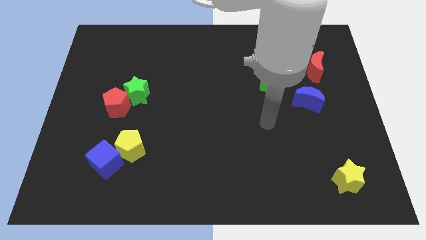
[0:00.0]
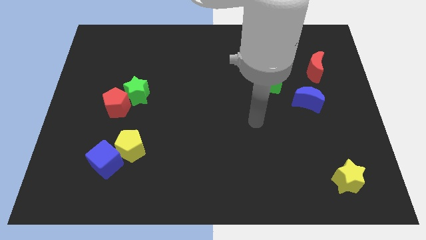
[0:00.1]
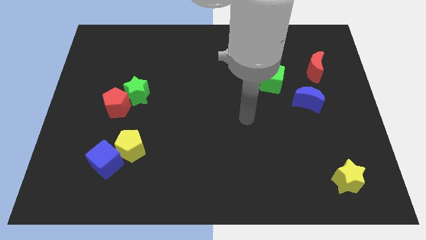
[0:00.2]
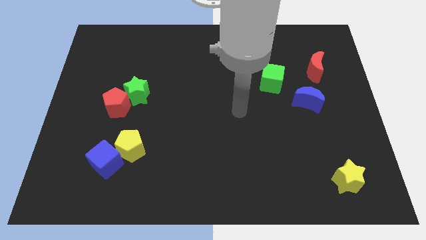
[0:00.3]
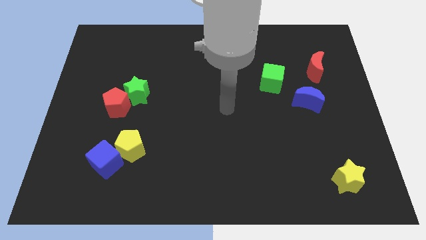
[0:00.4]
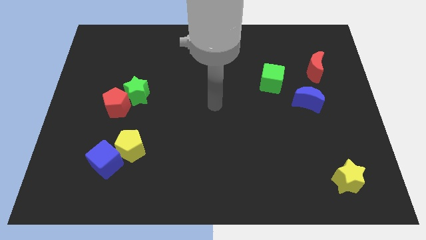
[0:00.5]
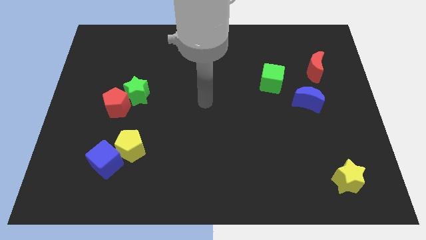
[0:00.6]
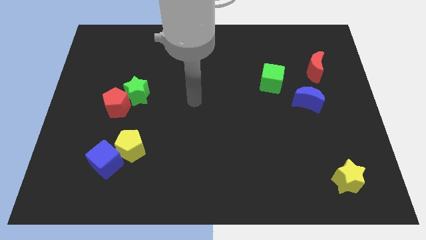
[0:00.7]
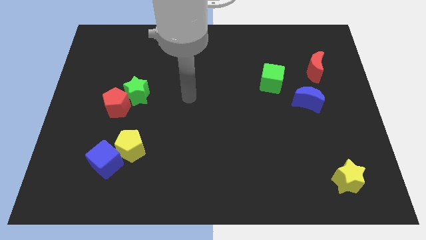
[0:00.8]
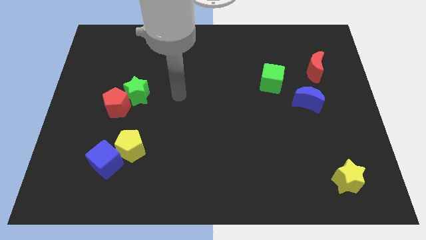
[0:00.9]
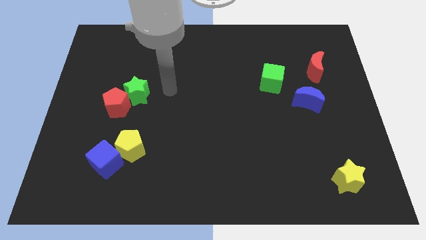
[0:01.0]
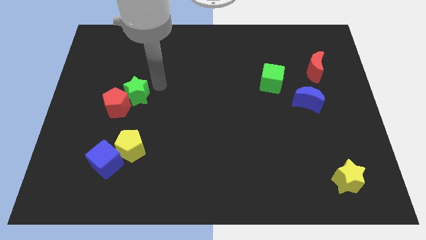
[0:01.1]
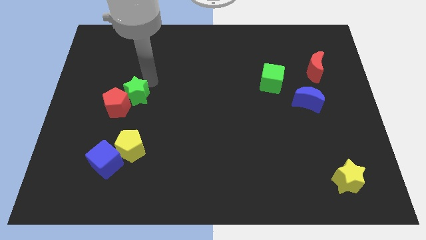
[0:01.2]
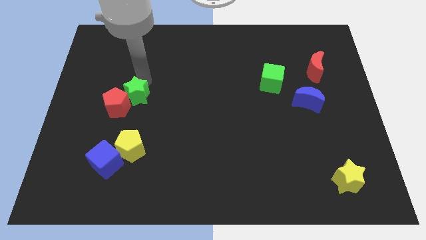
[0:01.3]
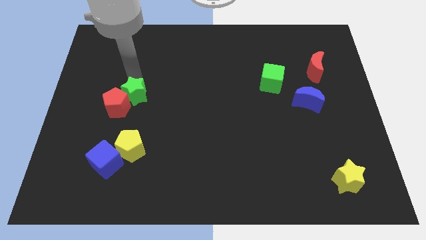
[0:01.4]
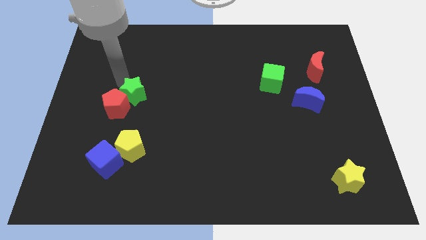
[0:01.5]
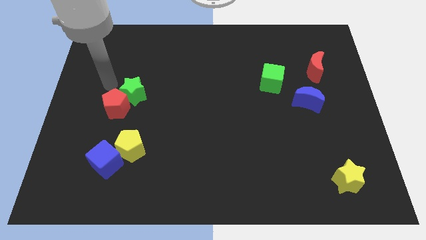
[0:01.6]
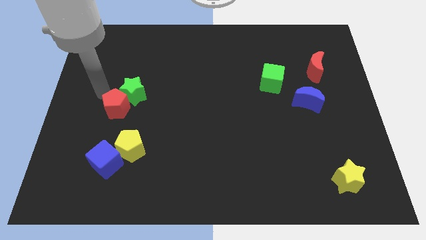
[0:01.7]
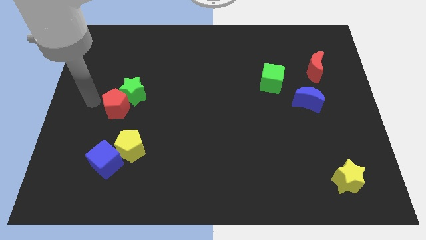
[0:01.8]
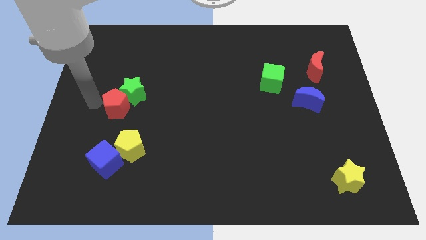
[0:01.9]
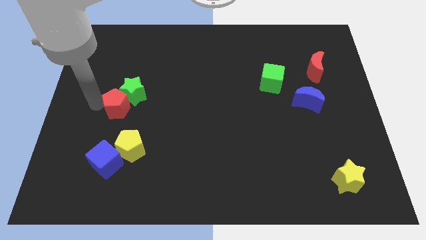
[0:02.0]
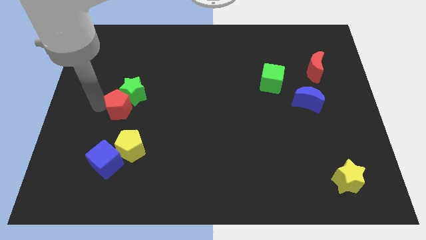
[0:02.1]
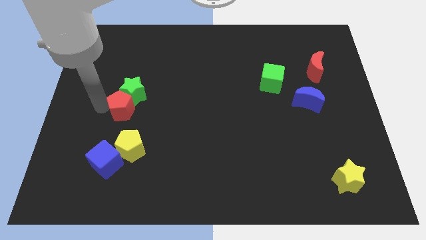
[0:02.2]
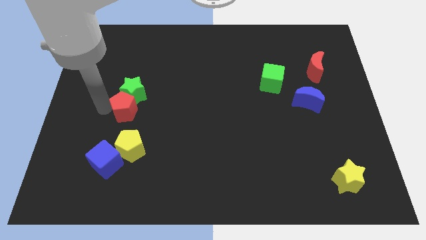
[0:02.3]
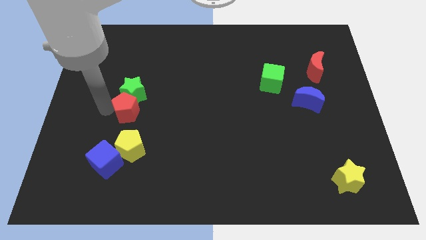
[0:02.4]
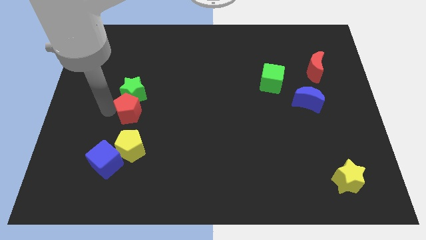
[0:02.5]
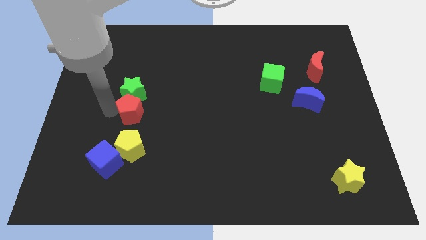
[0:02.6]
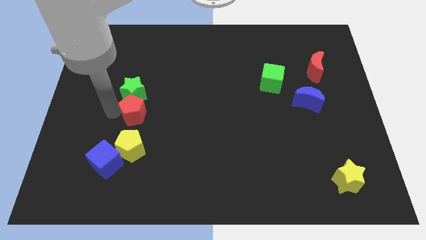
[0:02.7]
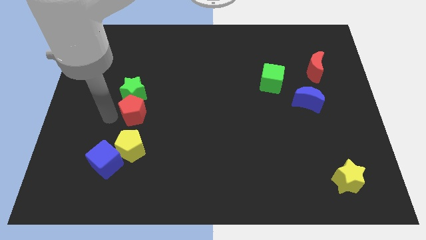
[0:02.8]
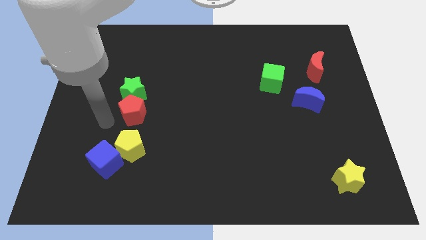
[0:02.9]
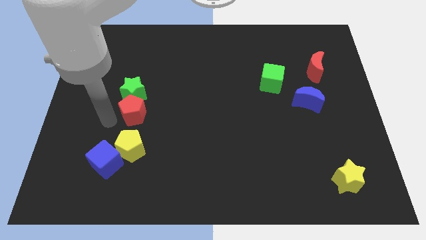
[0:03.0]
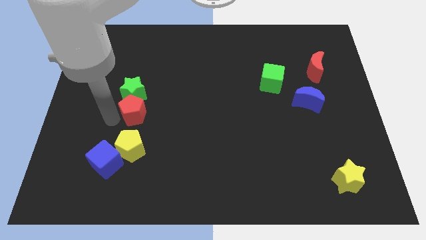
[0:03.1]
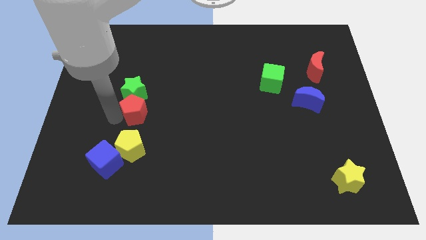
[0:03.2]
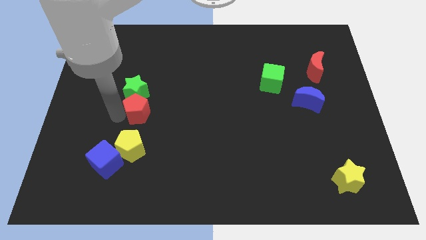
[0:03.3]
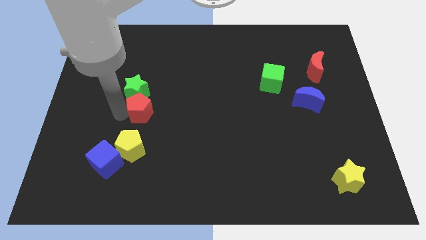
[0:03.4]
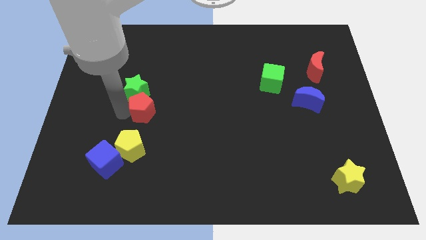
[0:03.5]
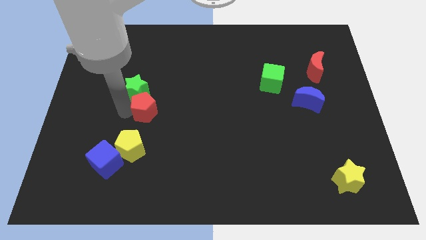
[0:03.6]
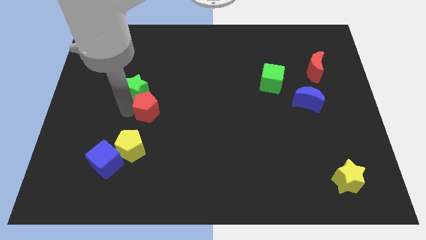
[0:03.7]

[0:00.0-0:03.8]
move the red pentagon a bit right

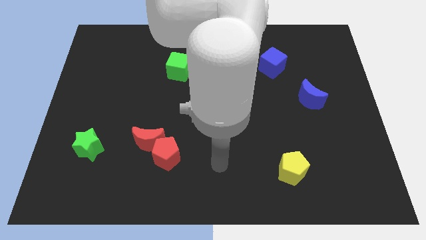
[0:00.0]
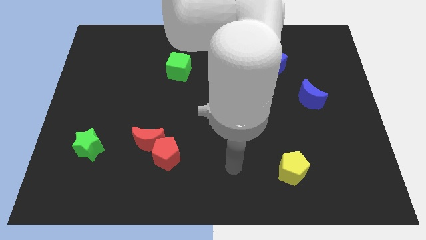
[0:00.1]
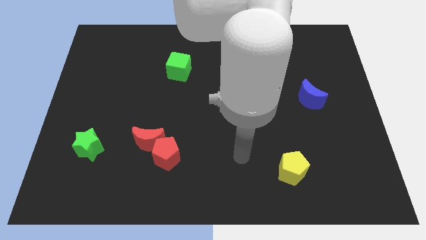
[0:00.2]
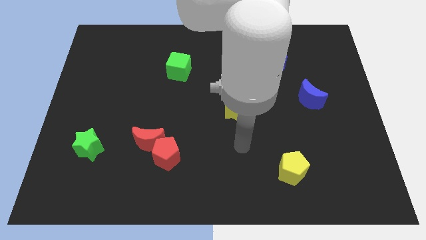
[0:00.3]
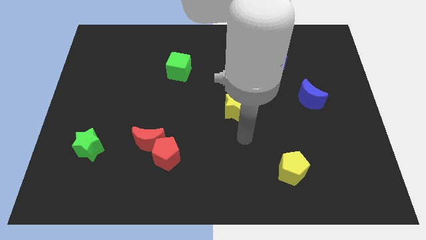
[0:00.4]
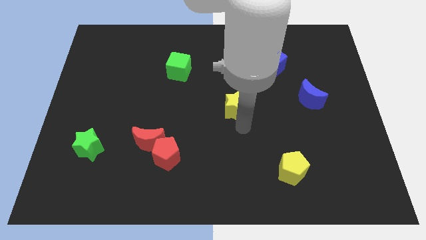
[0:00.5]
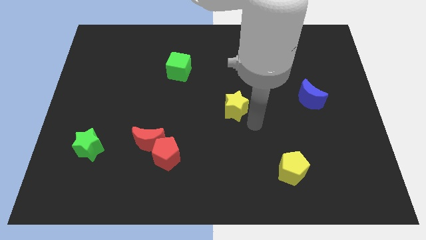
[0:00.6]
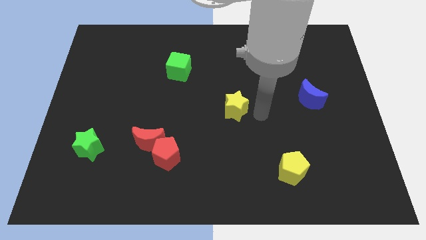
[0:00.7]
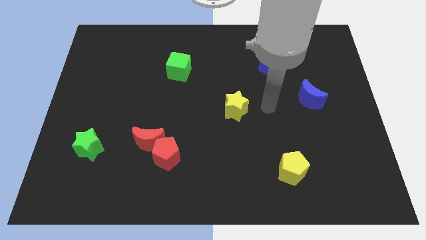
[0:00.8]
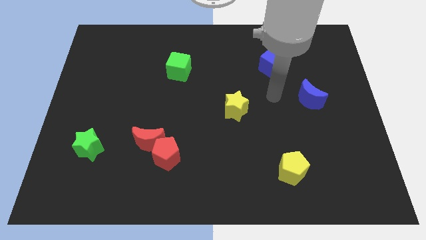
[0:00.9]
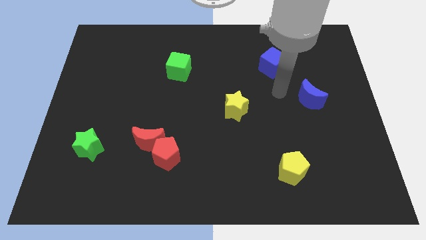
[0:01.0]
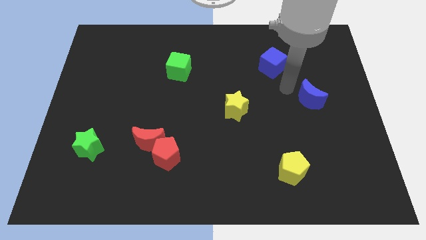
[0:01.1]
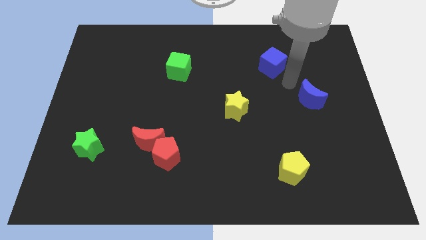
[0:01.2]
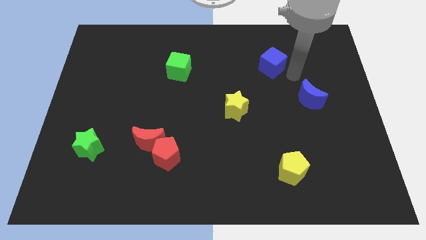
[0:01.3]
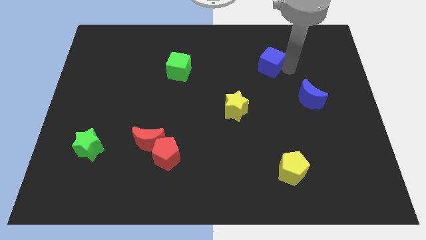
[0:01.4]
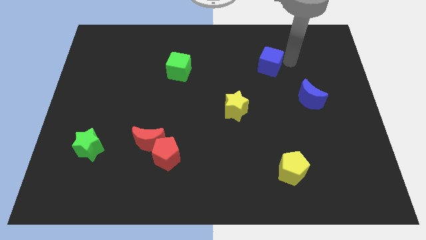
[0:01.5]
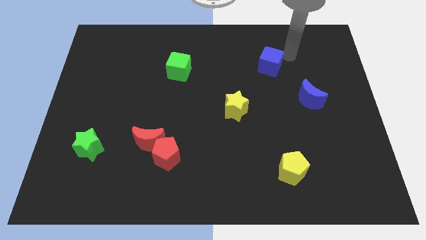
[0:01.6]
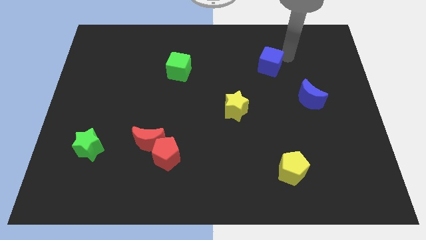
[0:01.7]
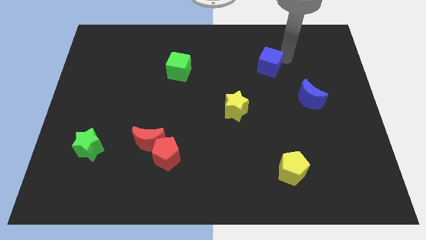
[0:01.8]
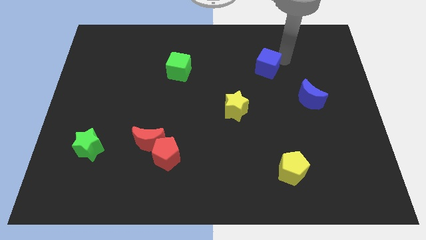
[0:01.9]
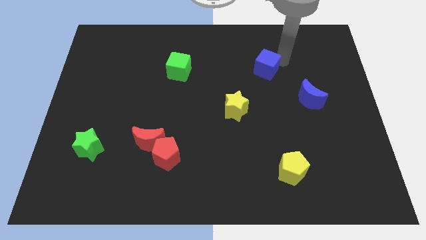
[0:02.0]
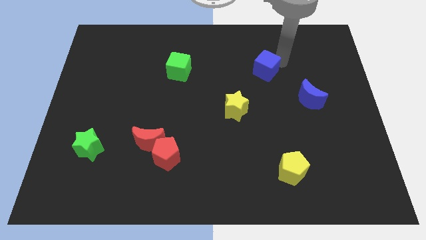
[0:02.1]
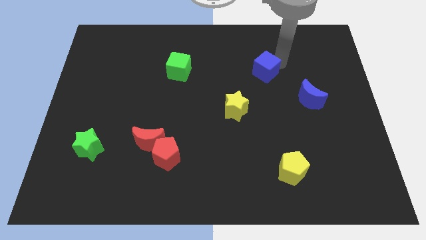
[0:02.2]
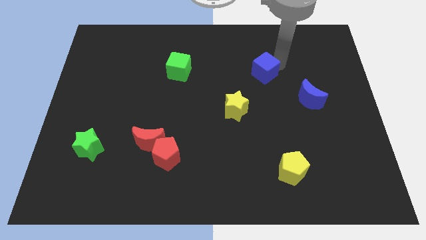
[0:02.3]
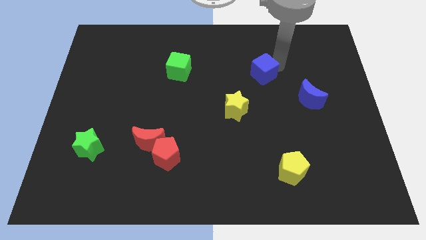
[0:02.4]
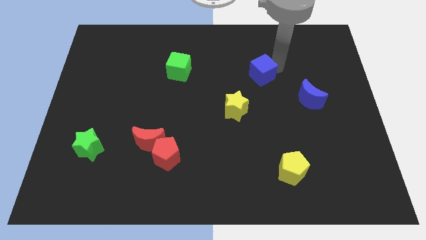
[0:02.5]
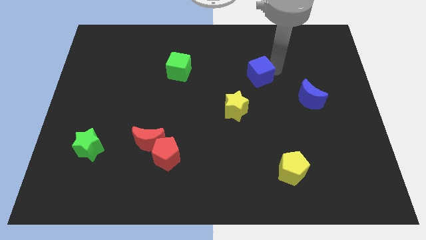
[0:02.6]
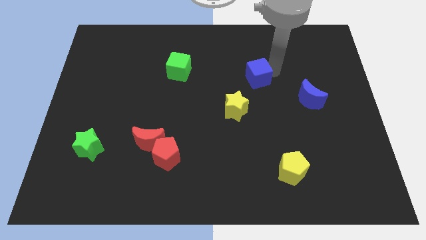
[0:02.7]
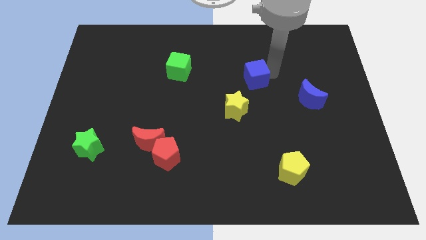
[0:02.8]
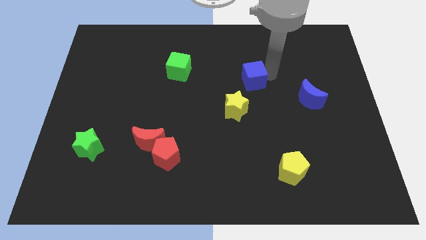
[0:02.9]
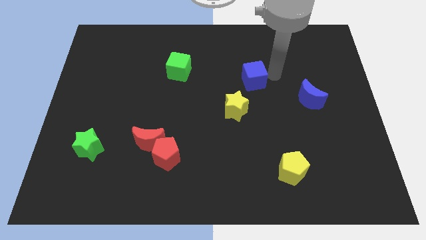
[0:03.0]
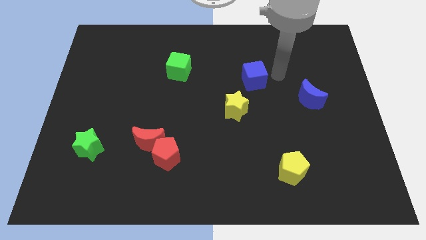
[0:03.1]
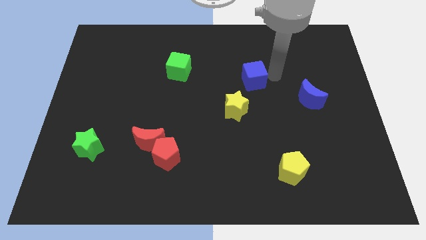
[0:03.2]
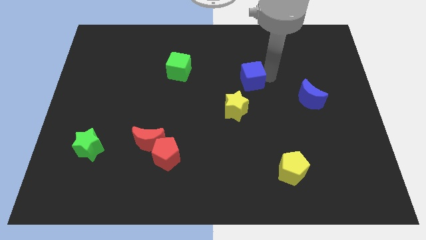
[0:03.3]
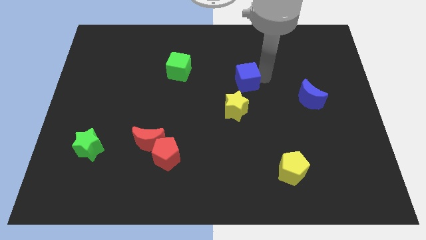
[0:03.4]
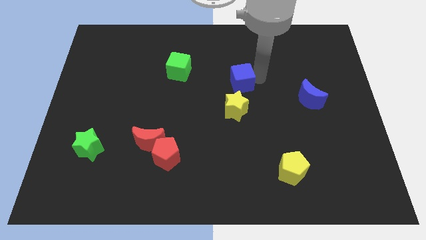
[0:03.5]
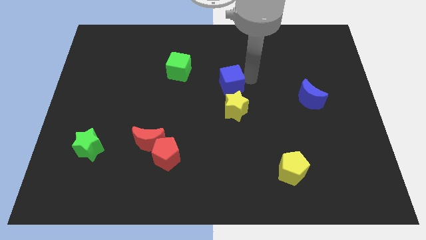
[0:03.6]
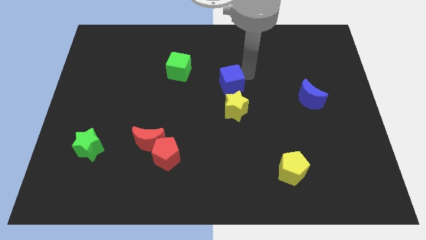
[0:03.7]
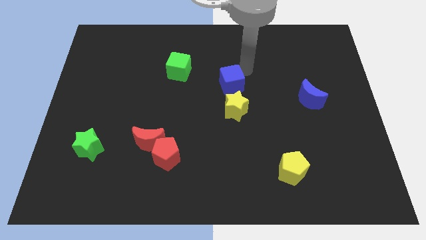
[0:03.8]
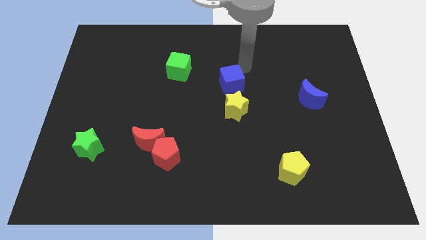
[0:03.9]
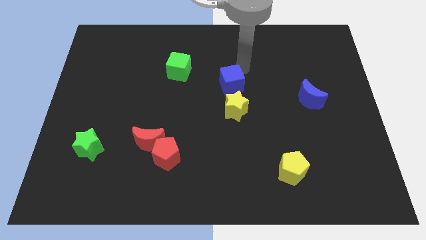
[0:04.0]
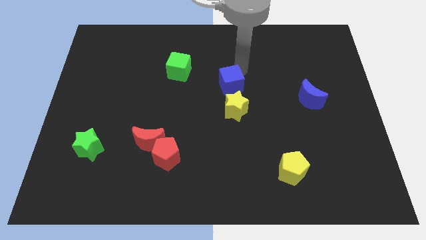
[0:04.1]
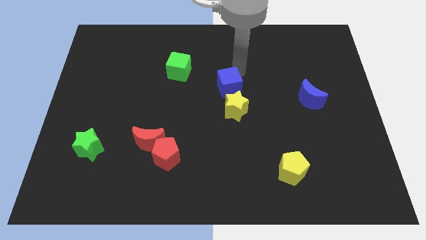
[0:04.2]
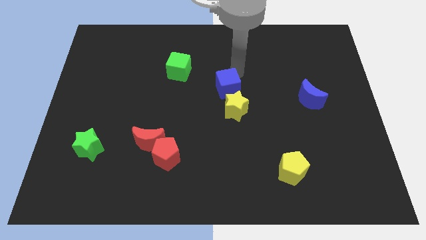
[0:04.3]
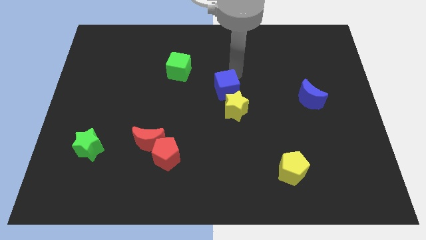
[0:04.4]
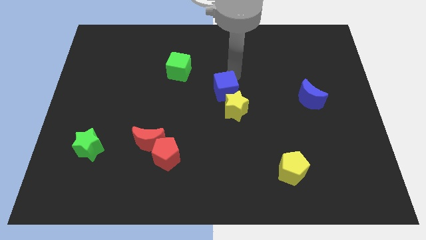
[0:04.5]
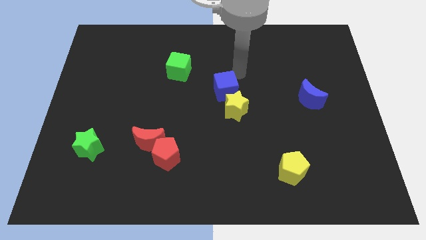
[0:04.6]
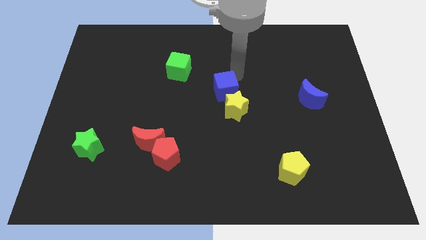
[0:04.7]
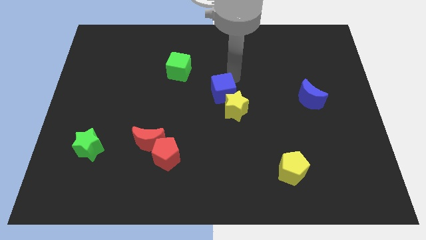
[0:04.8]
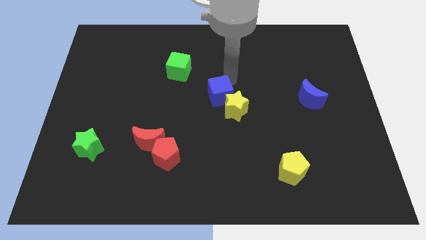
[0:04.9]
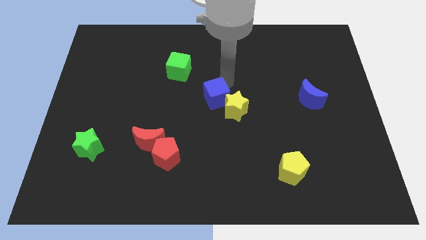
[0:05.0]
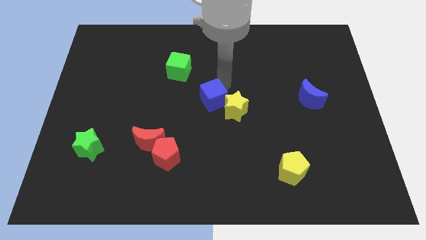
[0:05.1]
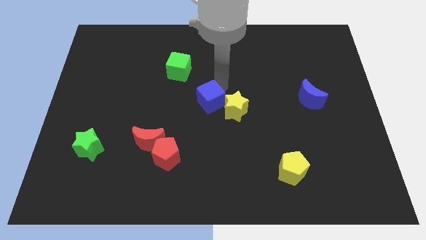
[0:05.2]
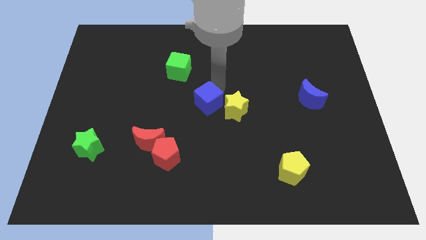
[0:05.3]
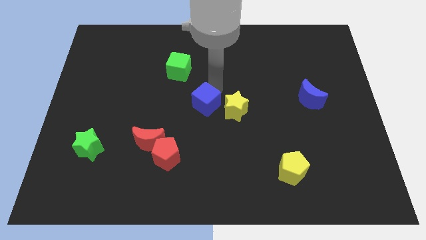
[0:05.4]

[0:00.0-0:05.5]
slide the blue cube down and then left
